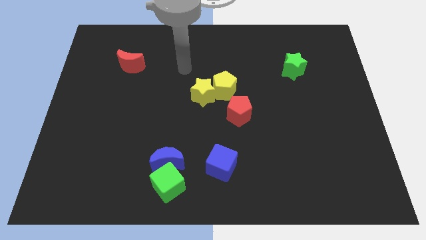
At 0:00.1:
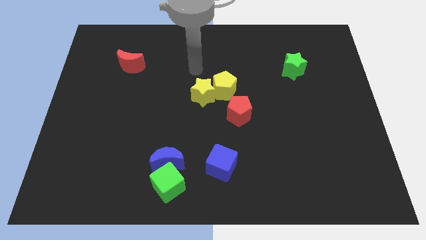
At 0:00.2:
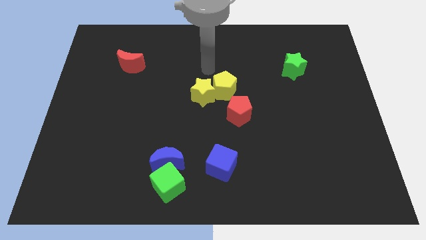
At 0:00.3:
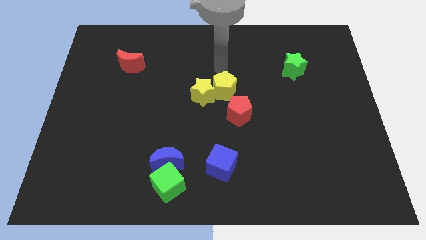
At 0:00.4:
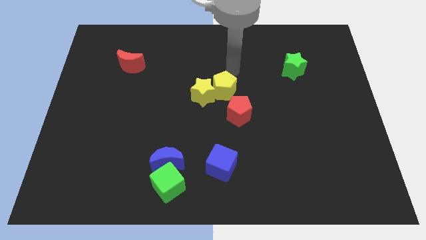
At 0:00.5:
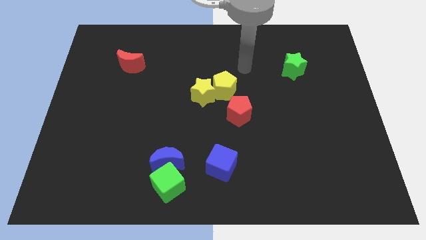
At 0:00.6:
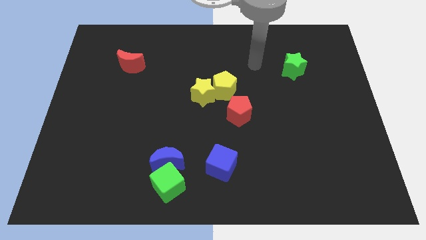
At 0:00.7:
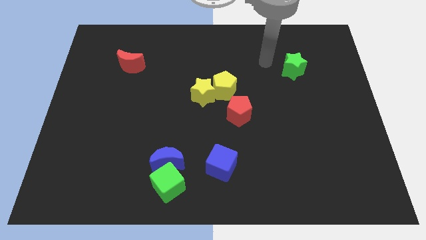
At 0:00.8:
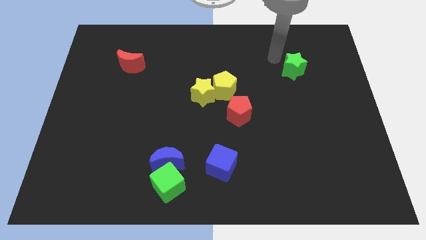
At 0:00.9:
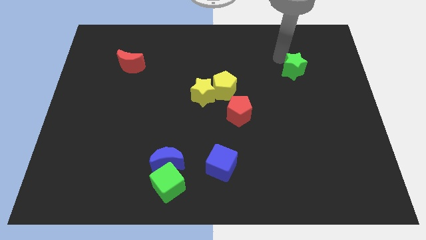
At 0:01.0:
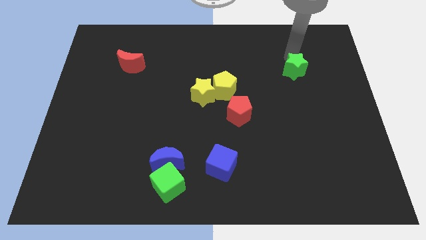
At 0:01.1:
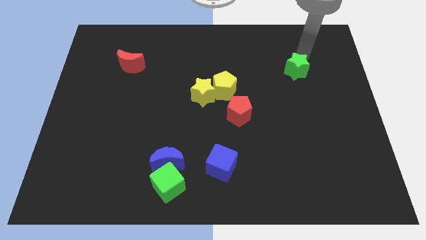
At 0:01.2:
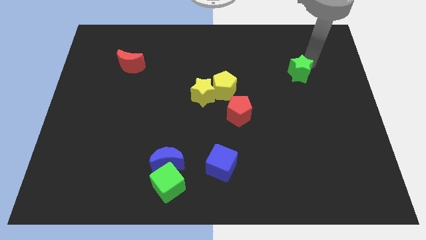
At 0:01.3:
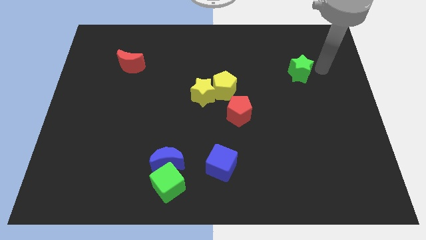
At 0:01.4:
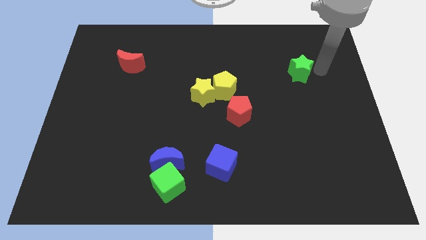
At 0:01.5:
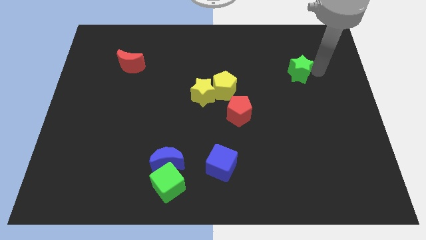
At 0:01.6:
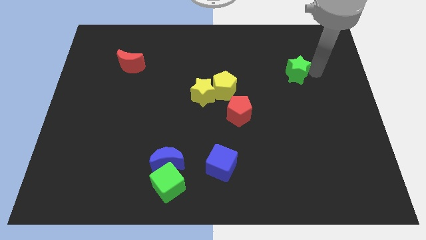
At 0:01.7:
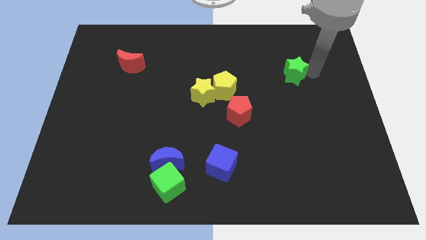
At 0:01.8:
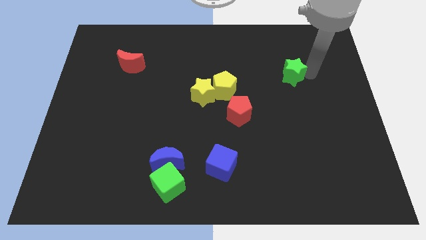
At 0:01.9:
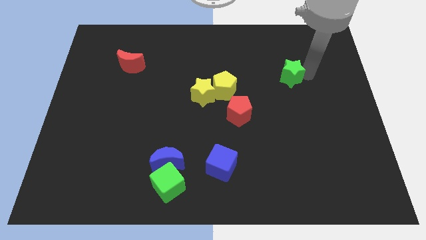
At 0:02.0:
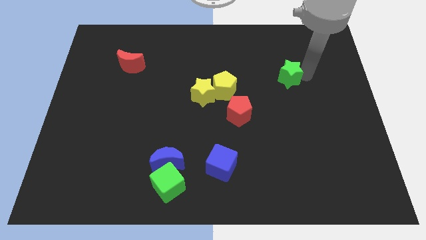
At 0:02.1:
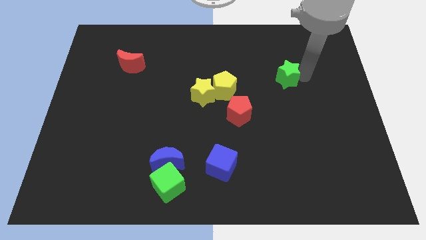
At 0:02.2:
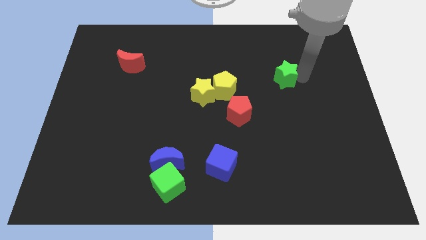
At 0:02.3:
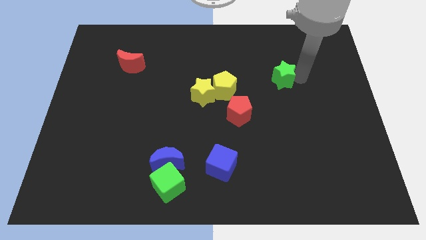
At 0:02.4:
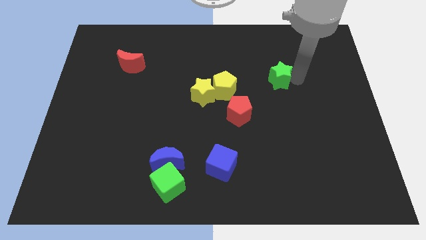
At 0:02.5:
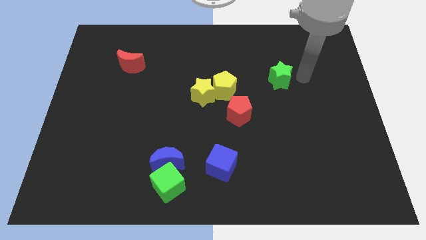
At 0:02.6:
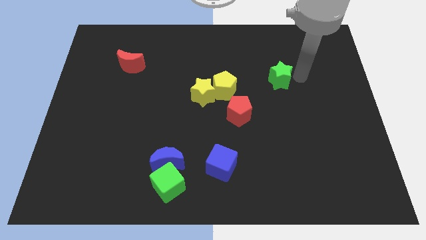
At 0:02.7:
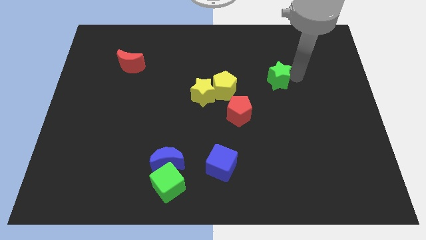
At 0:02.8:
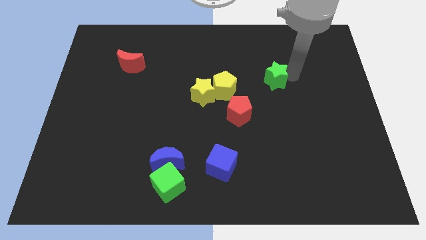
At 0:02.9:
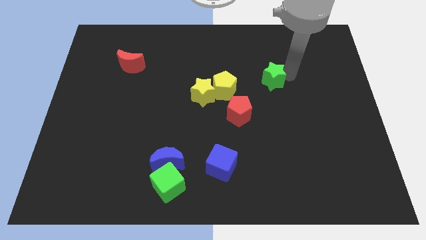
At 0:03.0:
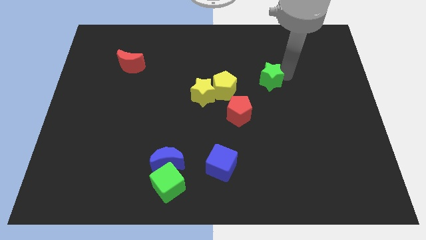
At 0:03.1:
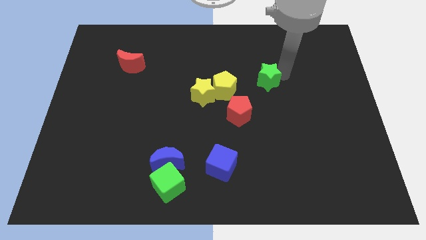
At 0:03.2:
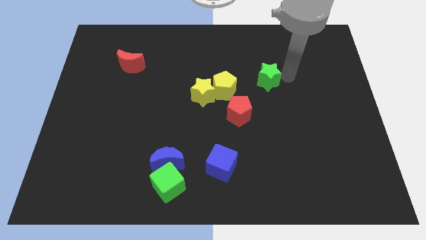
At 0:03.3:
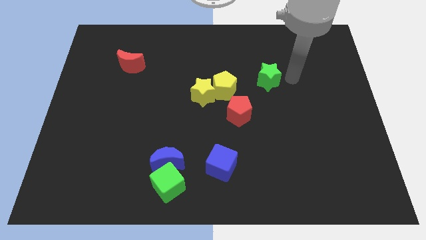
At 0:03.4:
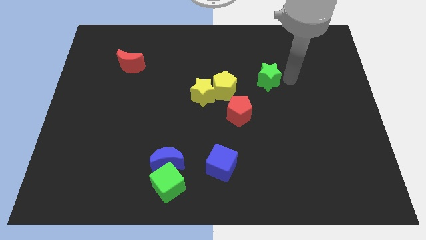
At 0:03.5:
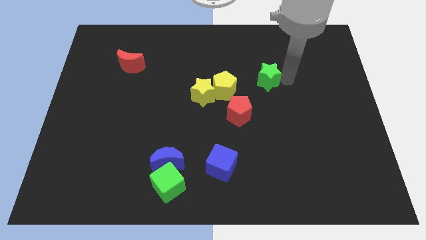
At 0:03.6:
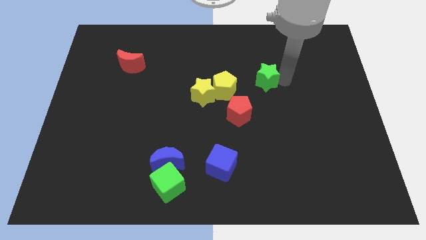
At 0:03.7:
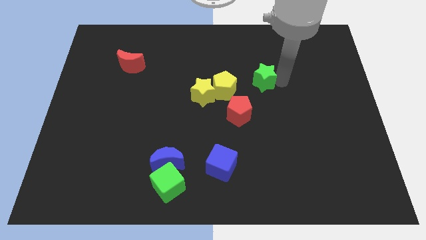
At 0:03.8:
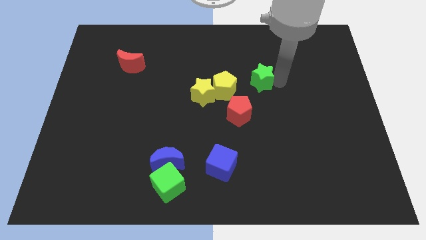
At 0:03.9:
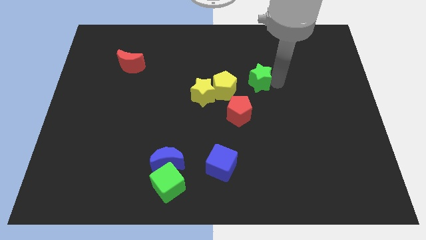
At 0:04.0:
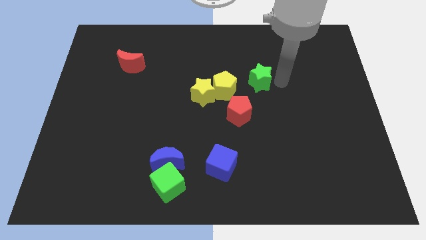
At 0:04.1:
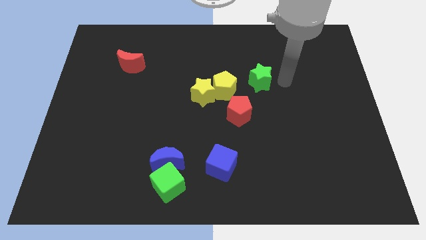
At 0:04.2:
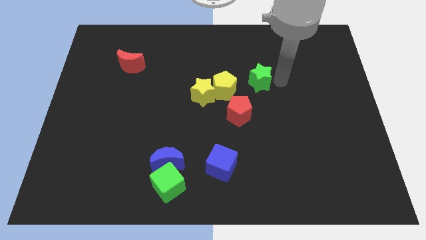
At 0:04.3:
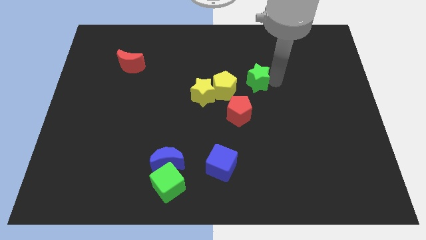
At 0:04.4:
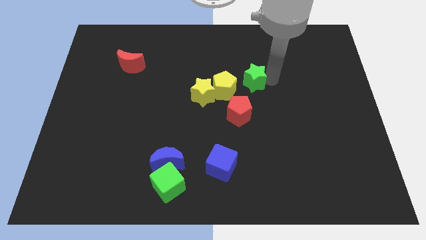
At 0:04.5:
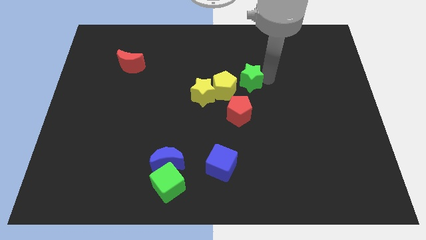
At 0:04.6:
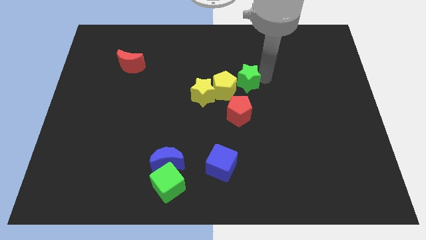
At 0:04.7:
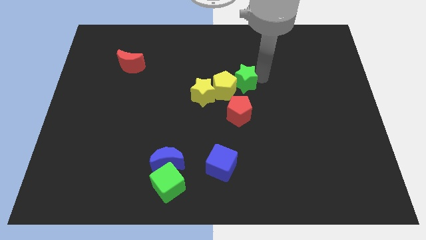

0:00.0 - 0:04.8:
slide the green star next to the yellow pentagon

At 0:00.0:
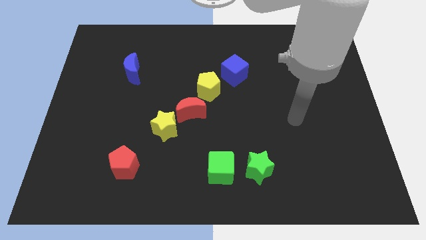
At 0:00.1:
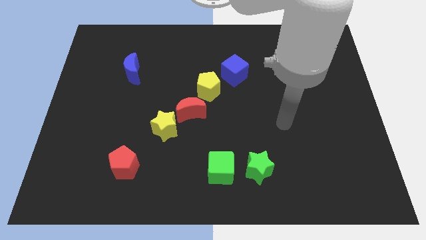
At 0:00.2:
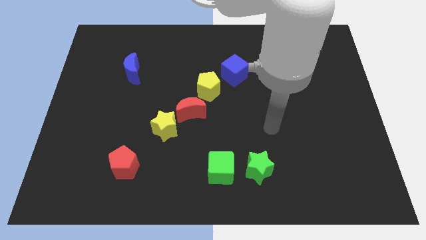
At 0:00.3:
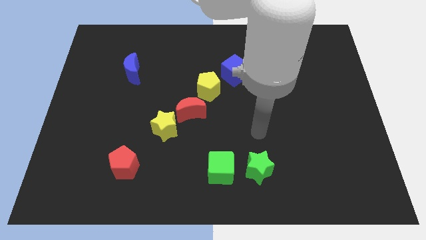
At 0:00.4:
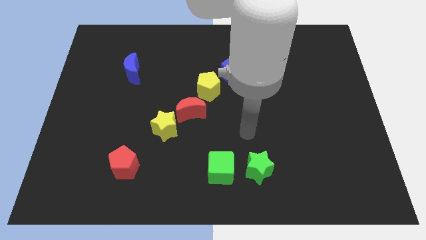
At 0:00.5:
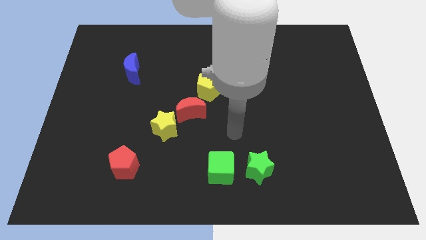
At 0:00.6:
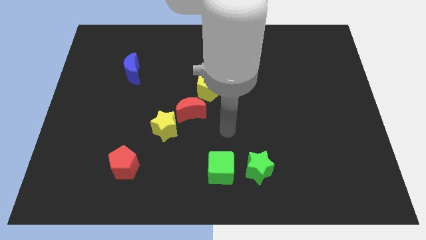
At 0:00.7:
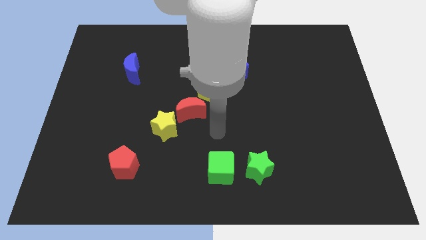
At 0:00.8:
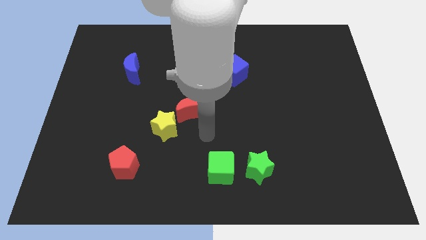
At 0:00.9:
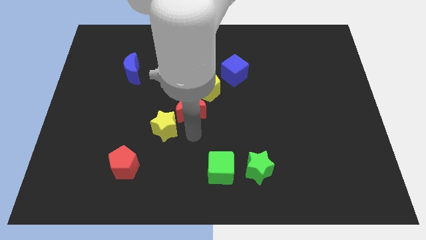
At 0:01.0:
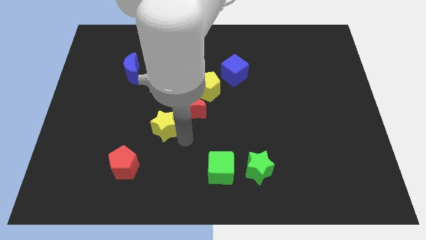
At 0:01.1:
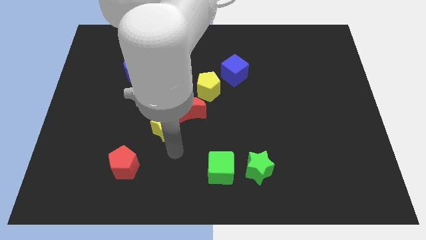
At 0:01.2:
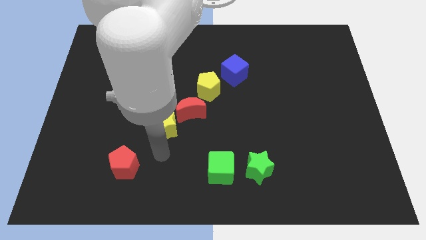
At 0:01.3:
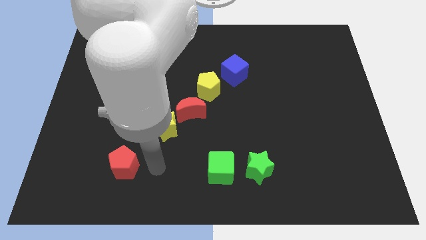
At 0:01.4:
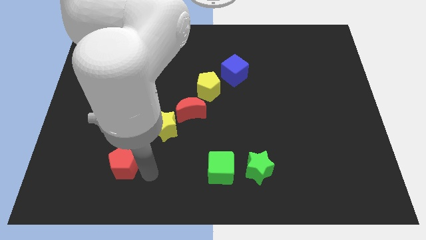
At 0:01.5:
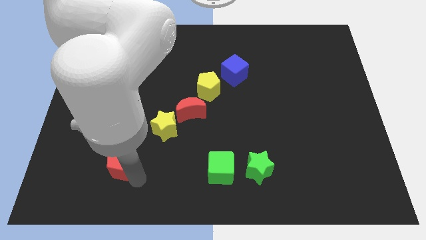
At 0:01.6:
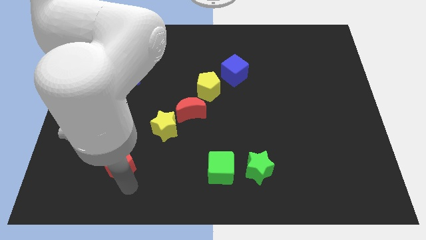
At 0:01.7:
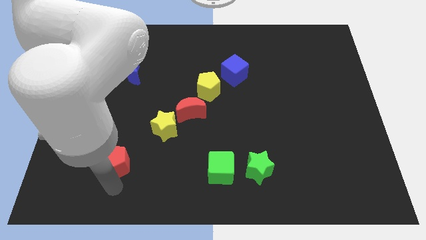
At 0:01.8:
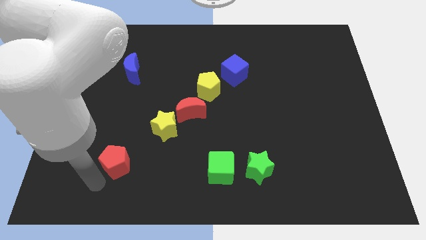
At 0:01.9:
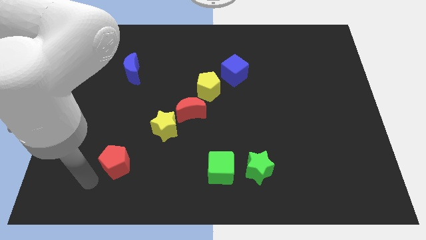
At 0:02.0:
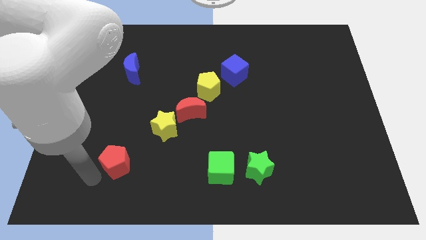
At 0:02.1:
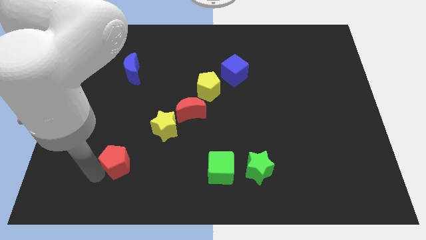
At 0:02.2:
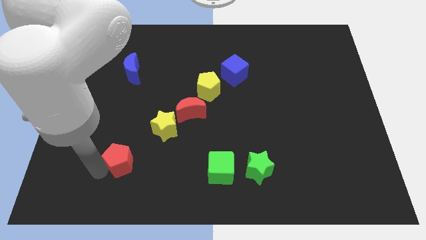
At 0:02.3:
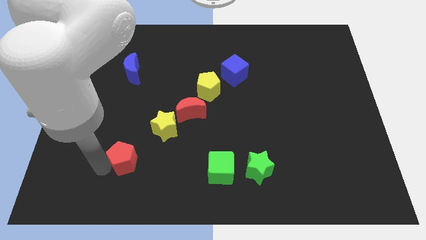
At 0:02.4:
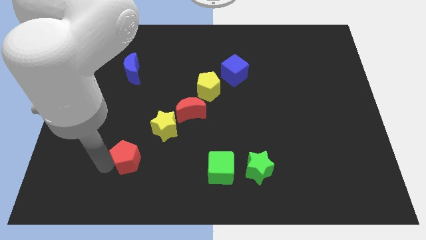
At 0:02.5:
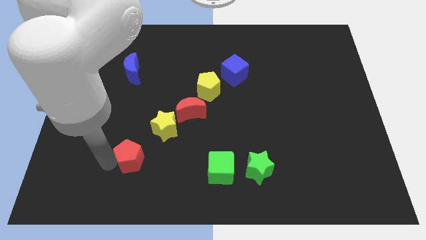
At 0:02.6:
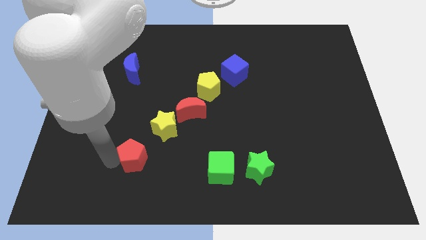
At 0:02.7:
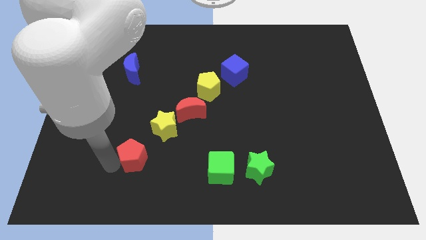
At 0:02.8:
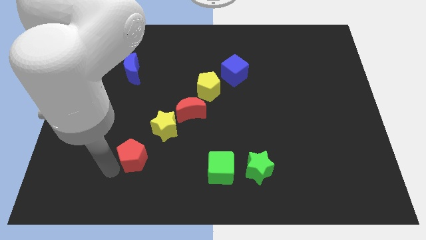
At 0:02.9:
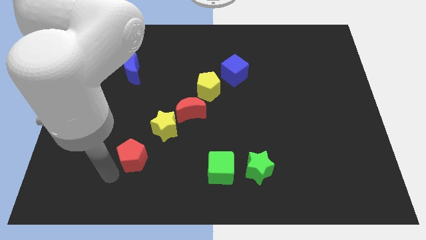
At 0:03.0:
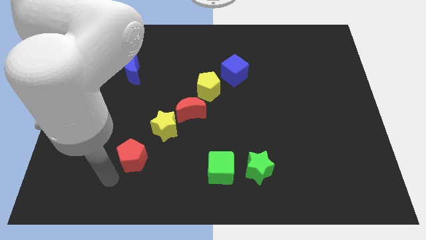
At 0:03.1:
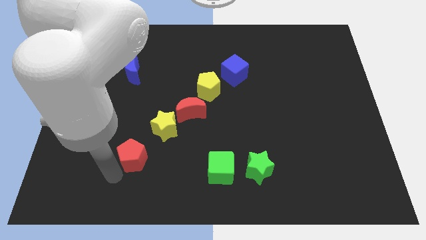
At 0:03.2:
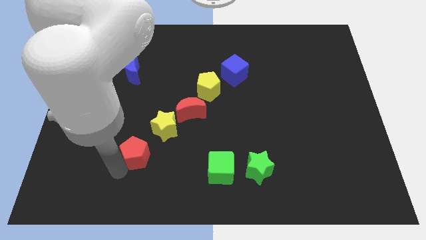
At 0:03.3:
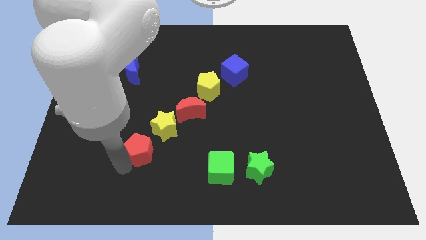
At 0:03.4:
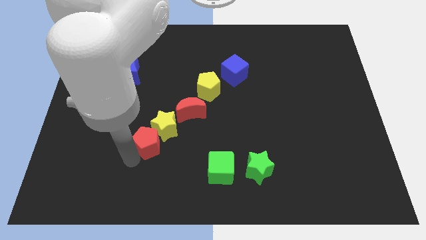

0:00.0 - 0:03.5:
slide the red pentagon towards the yellow star
